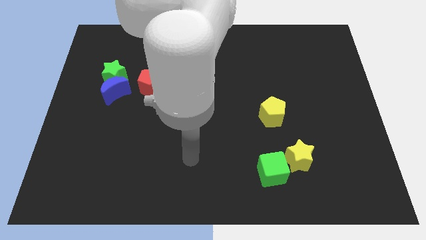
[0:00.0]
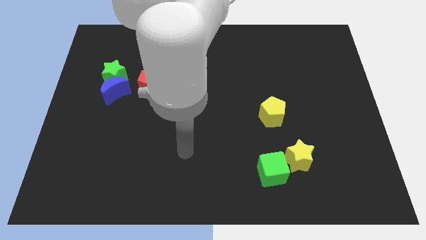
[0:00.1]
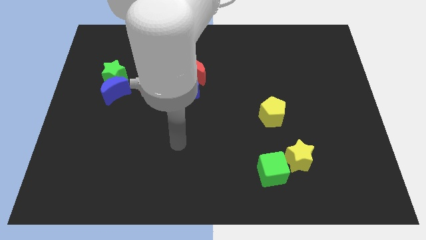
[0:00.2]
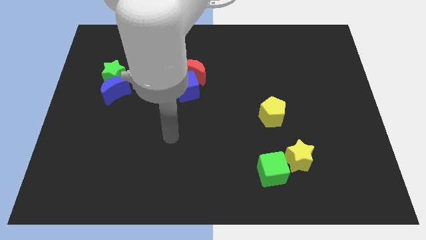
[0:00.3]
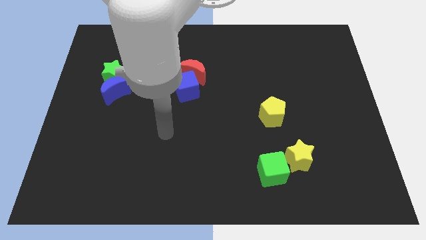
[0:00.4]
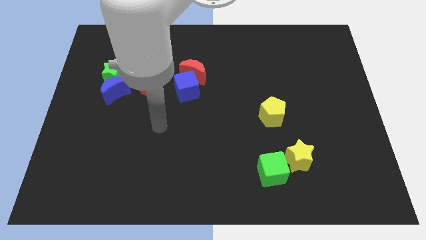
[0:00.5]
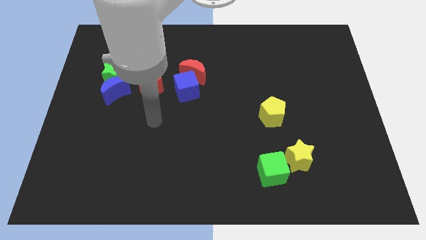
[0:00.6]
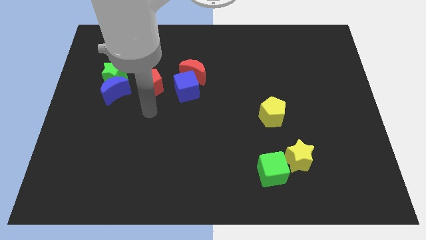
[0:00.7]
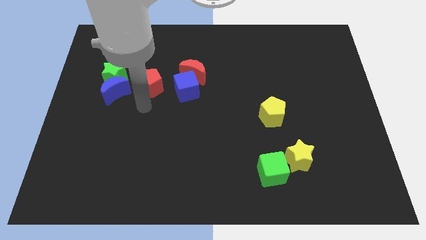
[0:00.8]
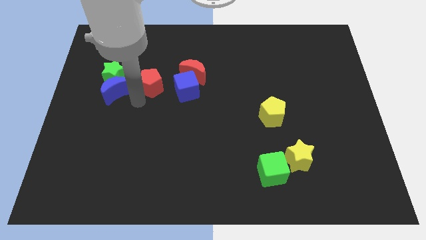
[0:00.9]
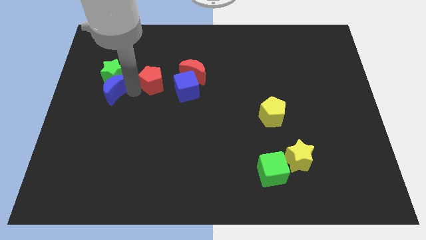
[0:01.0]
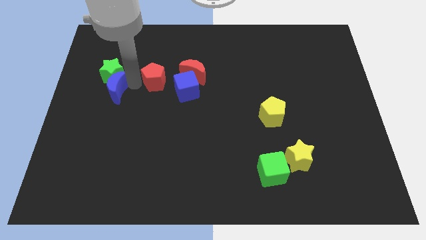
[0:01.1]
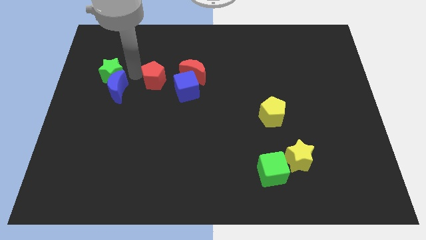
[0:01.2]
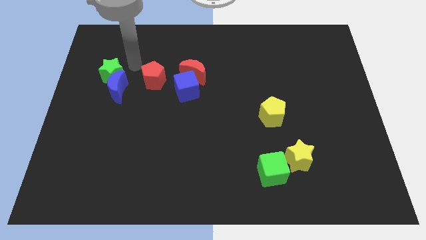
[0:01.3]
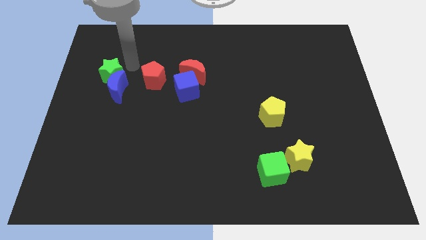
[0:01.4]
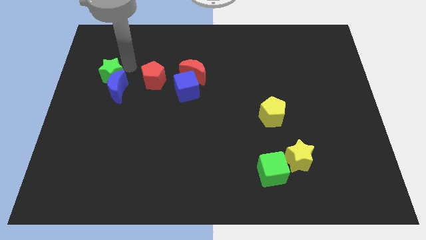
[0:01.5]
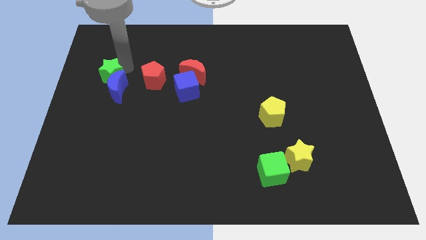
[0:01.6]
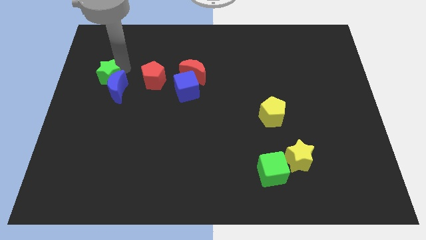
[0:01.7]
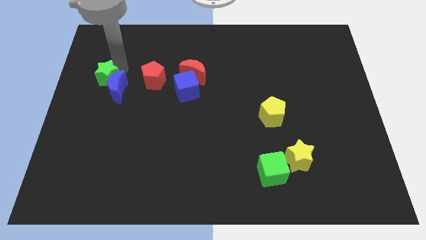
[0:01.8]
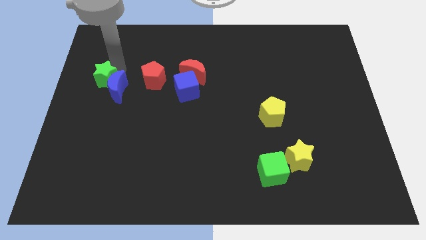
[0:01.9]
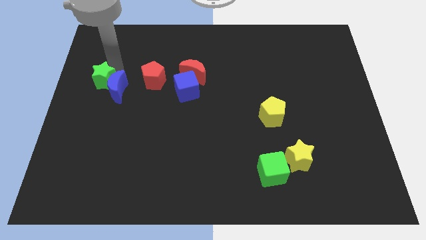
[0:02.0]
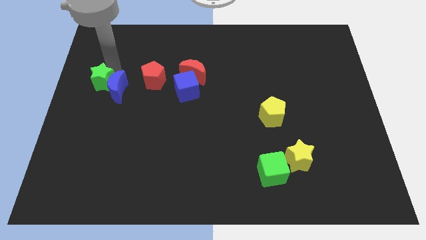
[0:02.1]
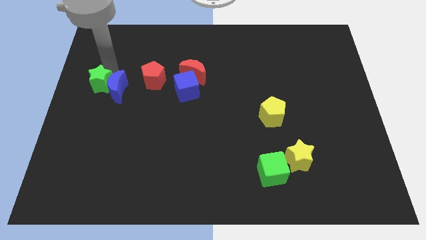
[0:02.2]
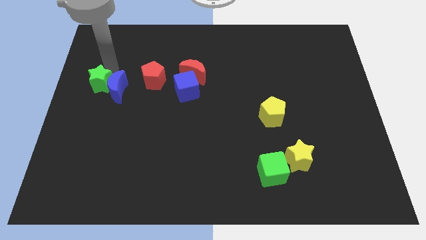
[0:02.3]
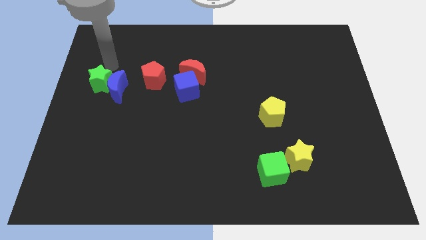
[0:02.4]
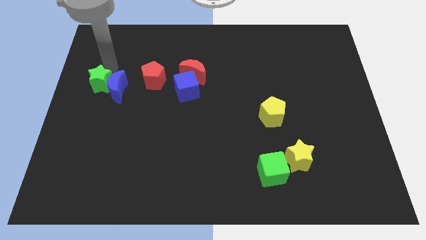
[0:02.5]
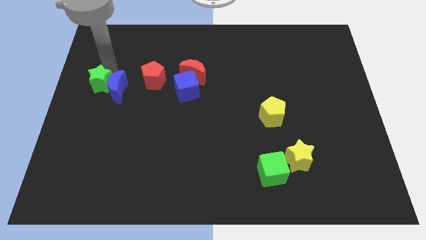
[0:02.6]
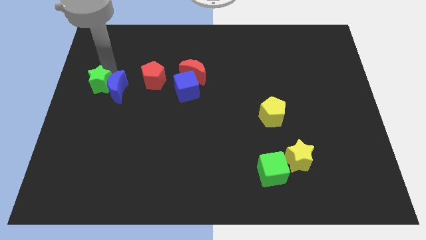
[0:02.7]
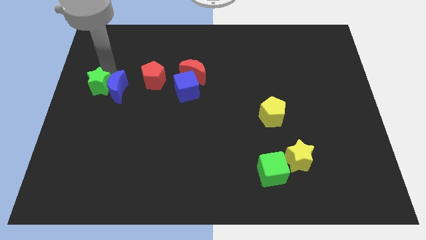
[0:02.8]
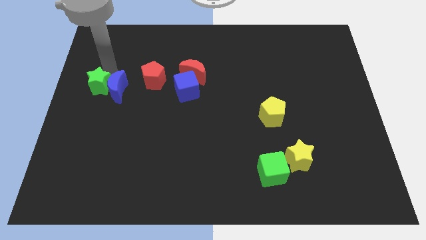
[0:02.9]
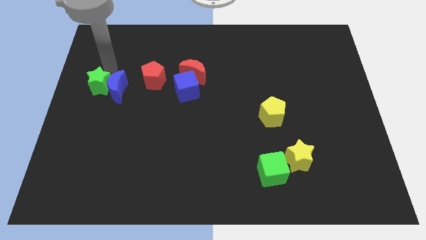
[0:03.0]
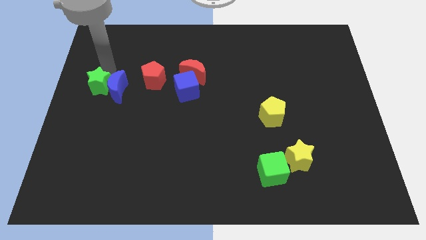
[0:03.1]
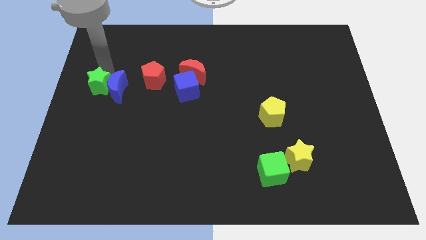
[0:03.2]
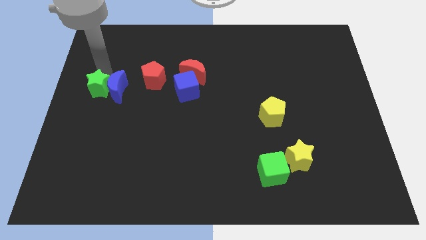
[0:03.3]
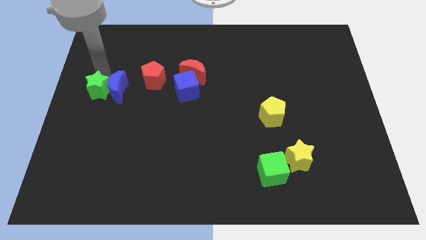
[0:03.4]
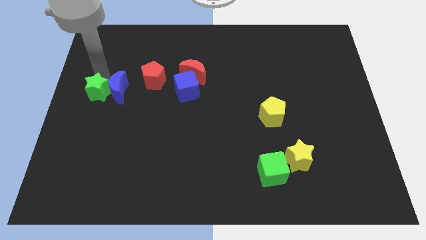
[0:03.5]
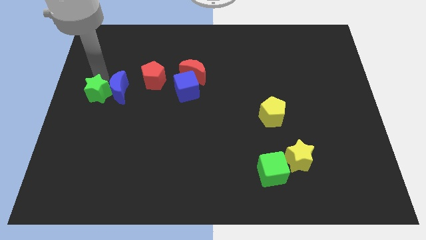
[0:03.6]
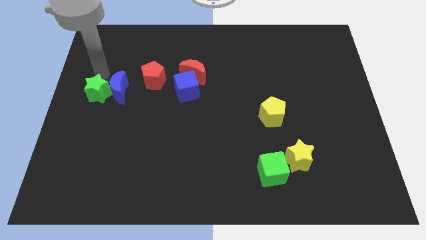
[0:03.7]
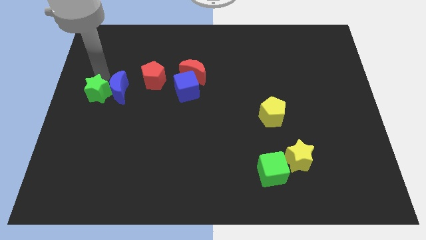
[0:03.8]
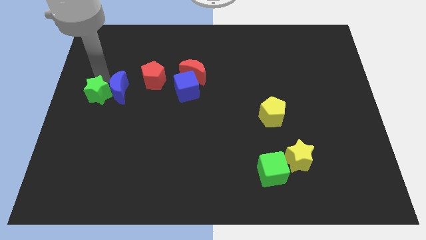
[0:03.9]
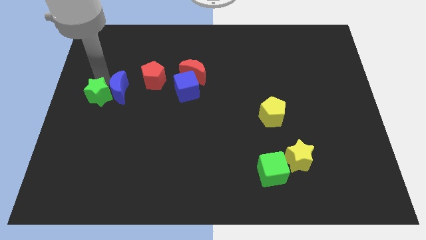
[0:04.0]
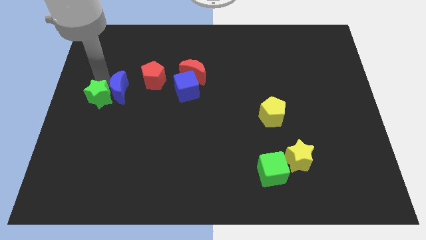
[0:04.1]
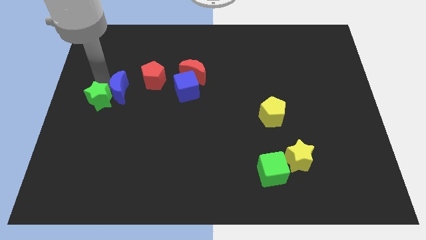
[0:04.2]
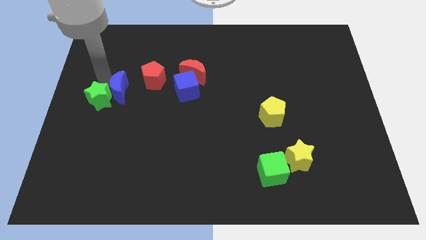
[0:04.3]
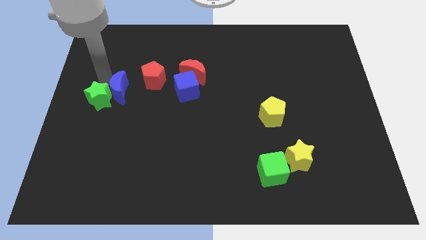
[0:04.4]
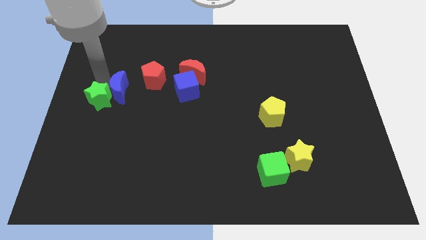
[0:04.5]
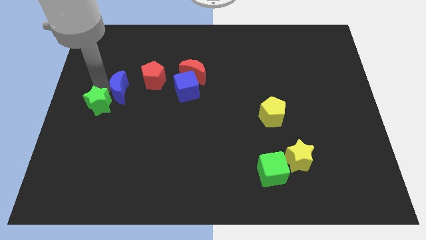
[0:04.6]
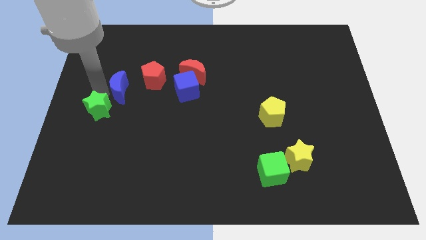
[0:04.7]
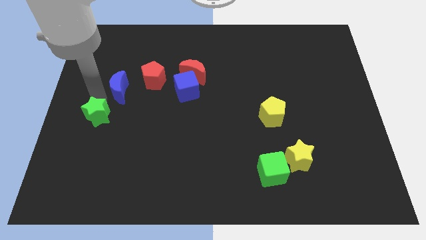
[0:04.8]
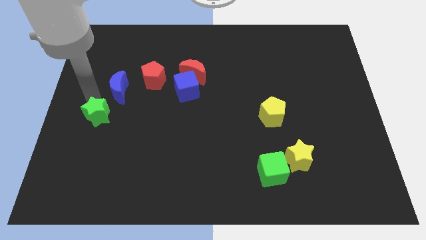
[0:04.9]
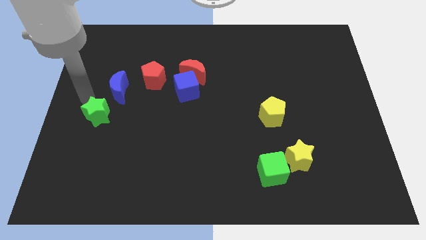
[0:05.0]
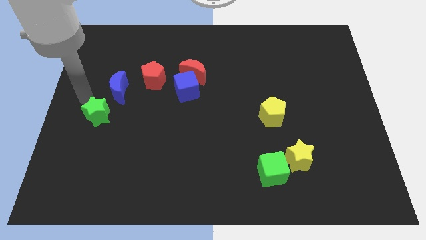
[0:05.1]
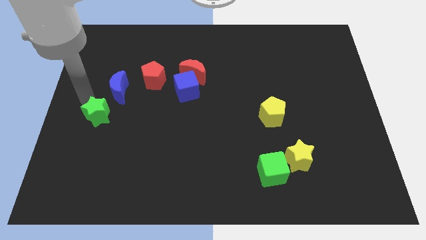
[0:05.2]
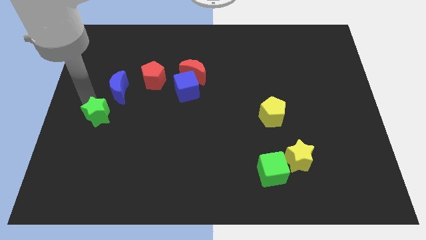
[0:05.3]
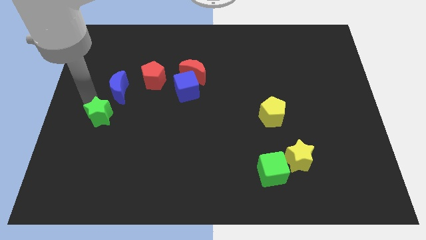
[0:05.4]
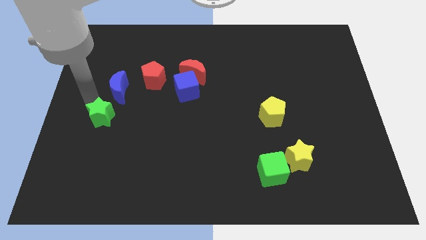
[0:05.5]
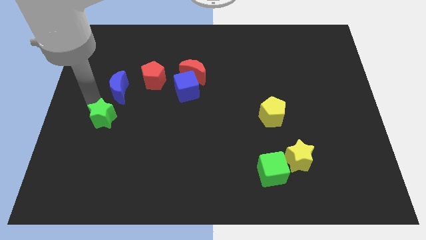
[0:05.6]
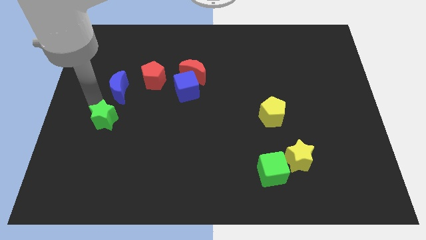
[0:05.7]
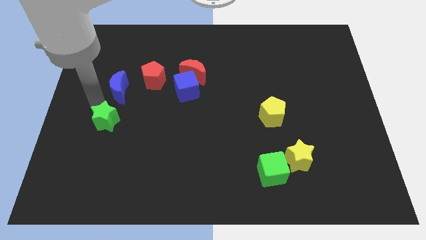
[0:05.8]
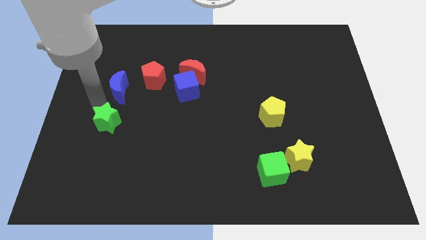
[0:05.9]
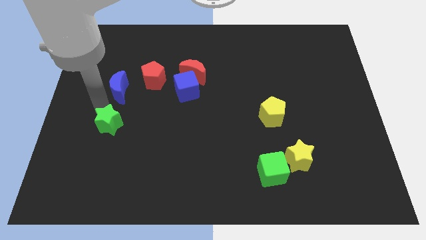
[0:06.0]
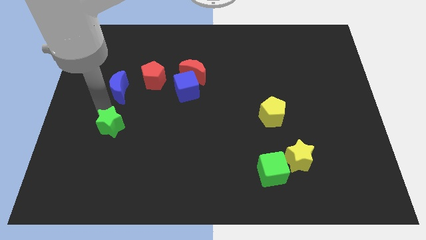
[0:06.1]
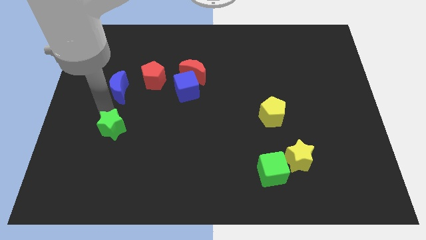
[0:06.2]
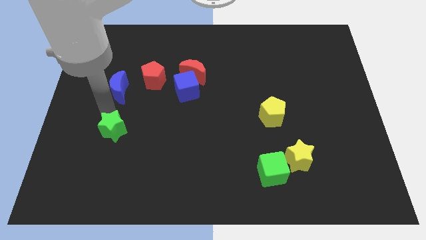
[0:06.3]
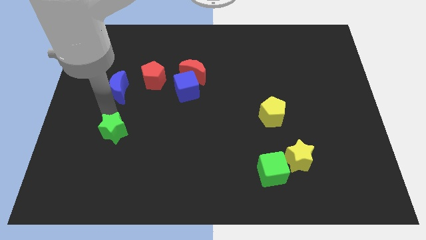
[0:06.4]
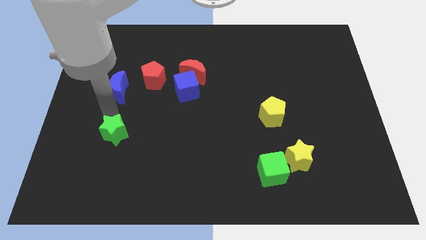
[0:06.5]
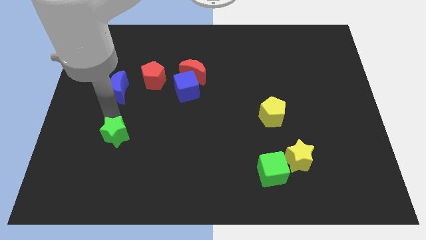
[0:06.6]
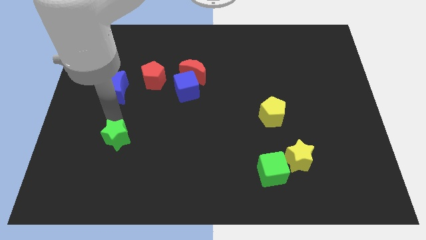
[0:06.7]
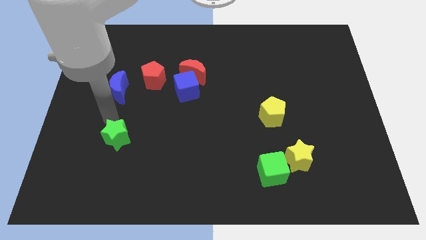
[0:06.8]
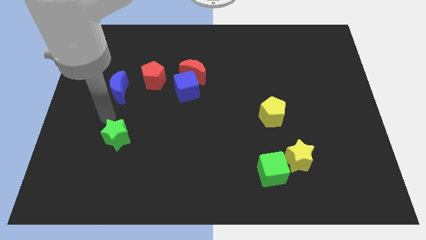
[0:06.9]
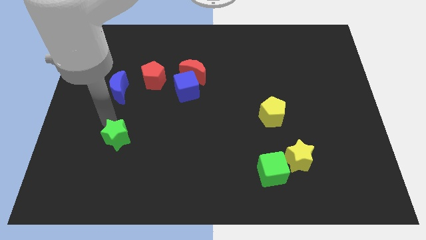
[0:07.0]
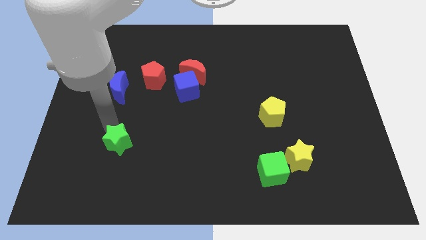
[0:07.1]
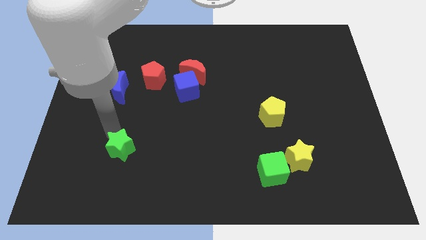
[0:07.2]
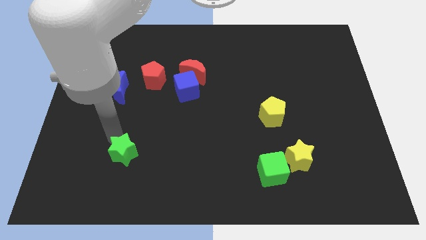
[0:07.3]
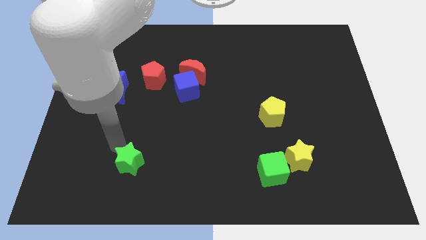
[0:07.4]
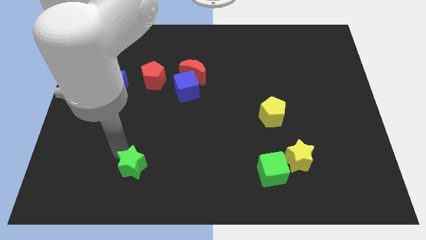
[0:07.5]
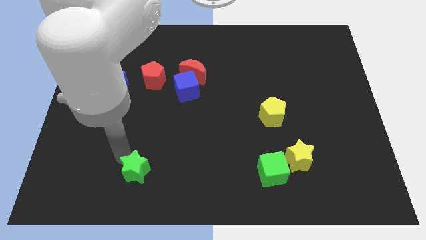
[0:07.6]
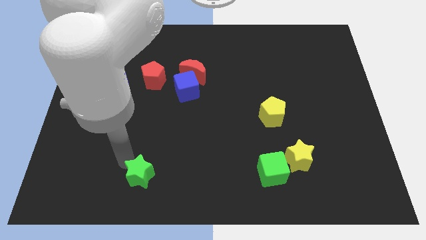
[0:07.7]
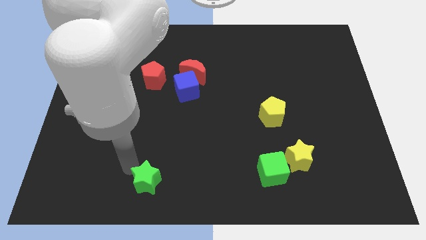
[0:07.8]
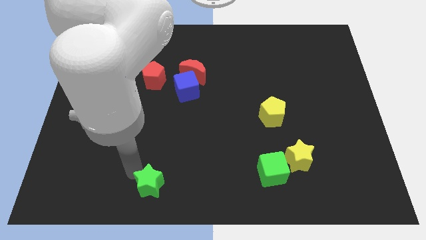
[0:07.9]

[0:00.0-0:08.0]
move the green star to the bottom side
